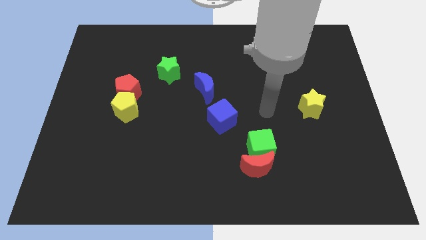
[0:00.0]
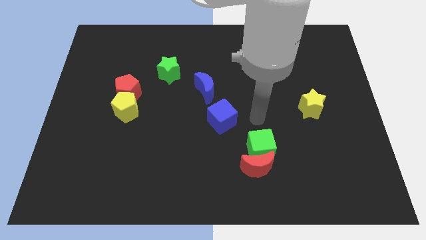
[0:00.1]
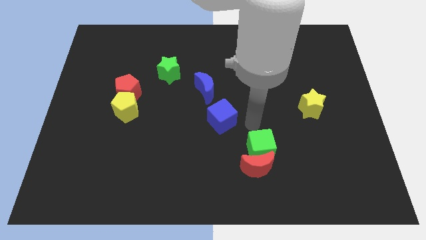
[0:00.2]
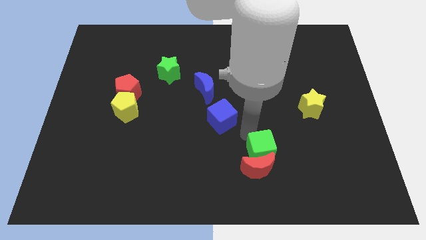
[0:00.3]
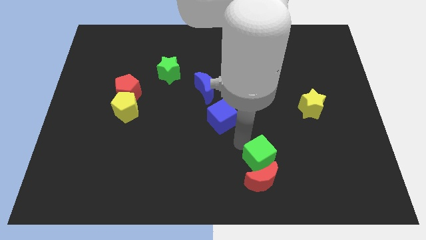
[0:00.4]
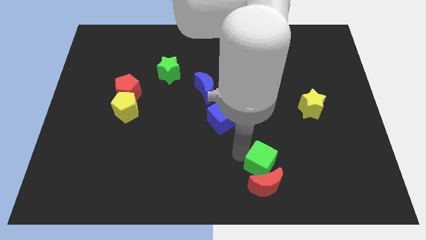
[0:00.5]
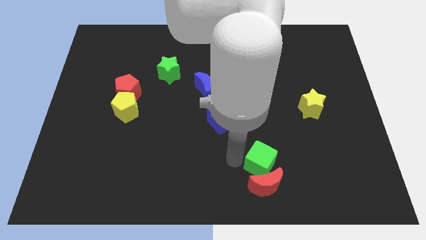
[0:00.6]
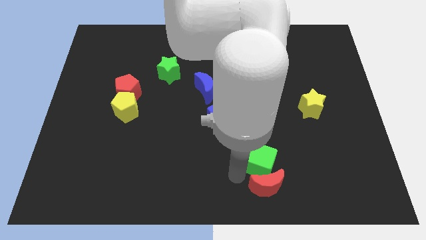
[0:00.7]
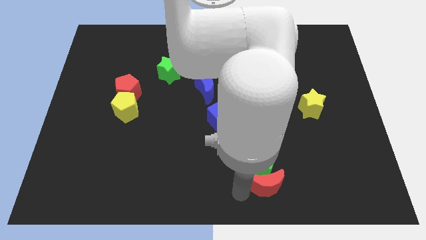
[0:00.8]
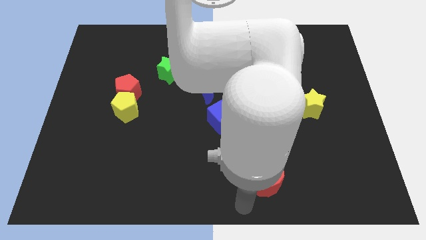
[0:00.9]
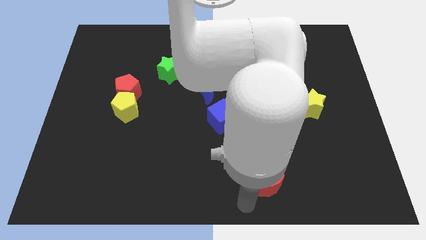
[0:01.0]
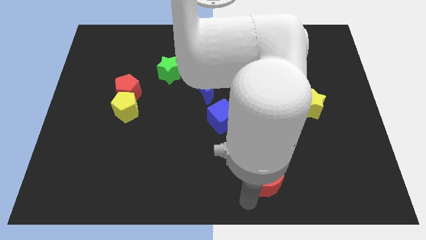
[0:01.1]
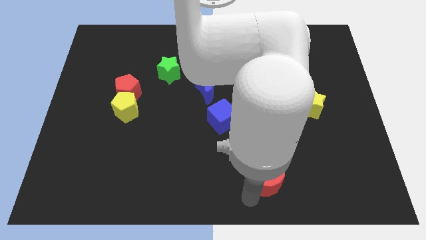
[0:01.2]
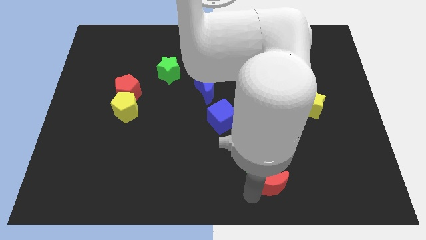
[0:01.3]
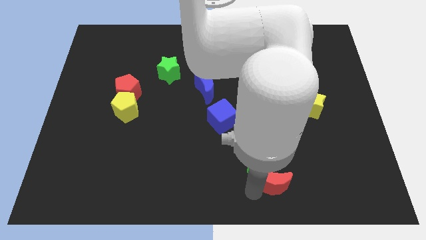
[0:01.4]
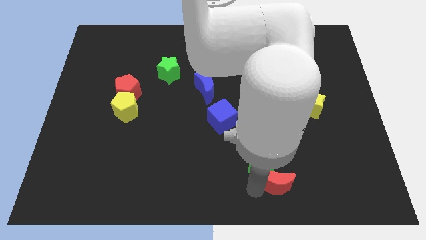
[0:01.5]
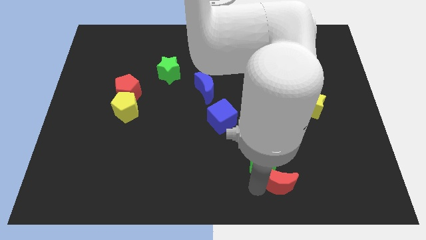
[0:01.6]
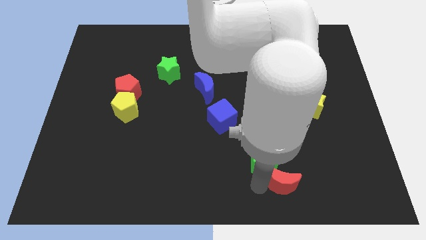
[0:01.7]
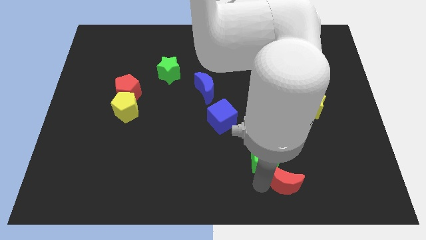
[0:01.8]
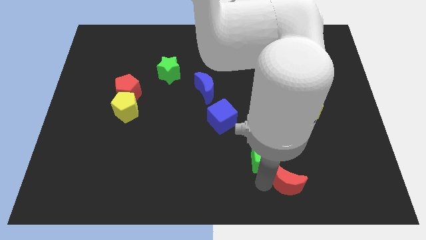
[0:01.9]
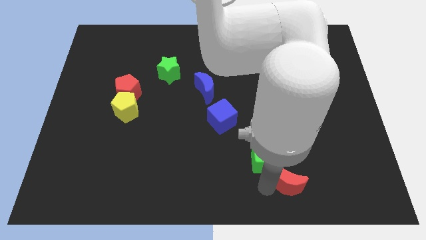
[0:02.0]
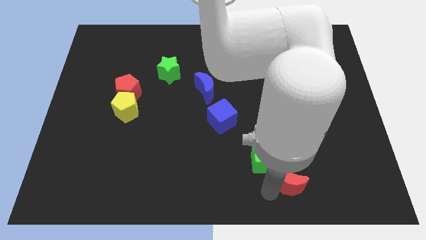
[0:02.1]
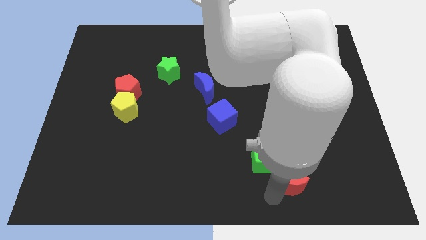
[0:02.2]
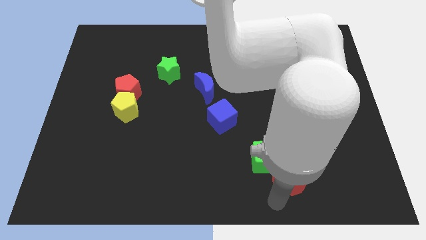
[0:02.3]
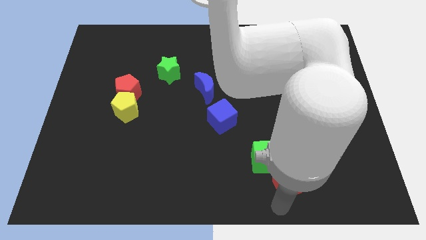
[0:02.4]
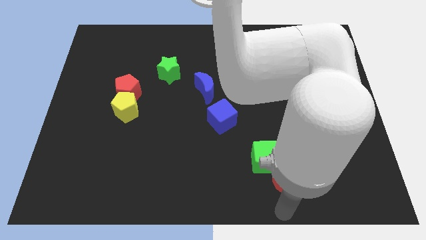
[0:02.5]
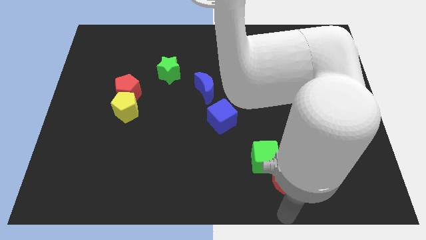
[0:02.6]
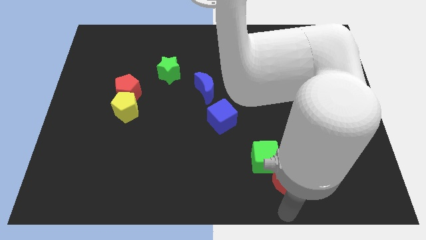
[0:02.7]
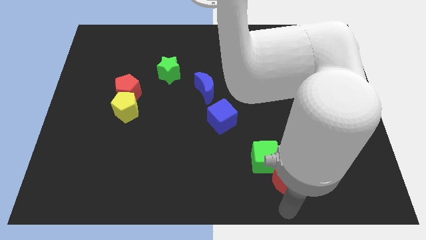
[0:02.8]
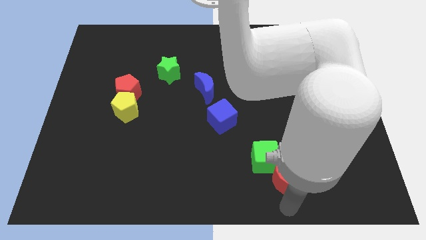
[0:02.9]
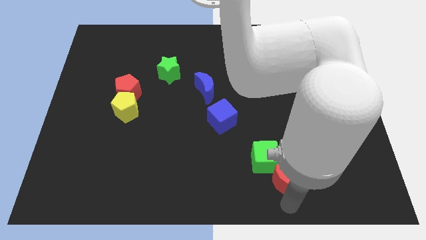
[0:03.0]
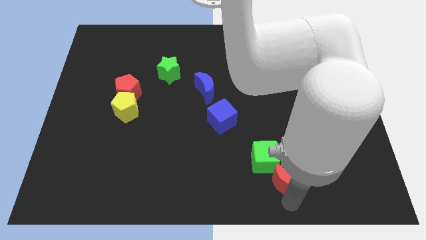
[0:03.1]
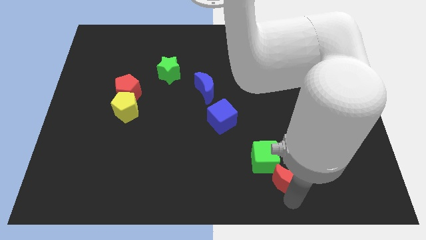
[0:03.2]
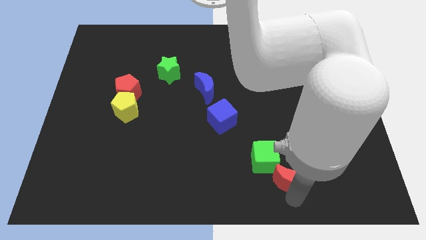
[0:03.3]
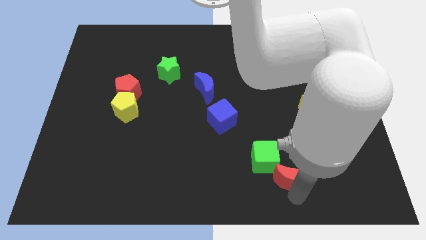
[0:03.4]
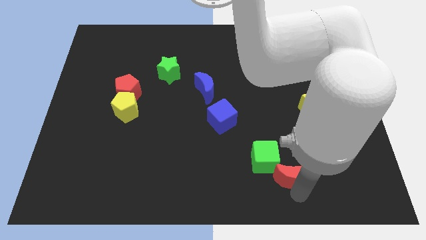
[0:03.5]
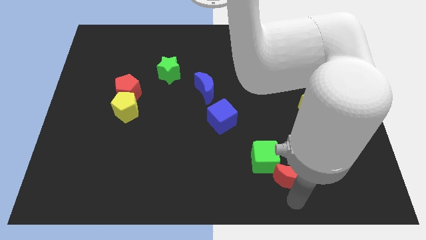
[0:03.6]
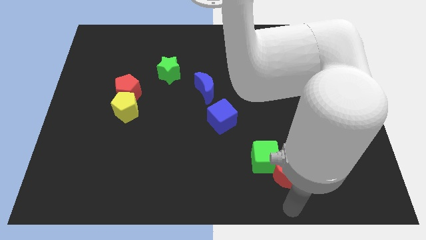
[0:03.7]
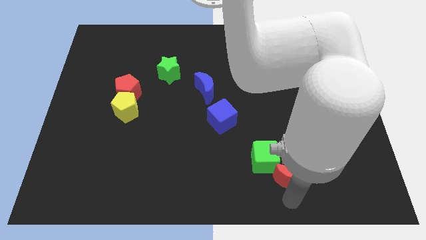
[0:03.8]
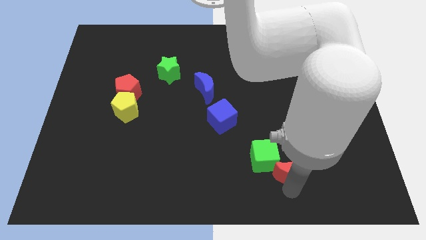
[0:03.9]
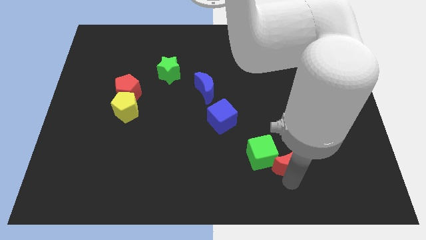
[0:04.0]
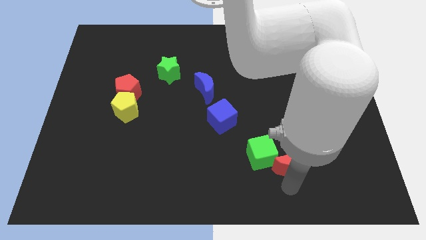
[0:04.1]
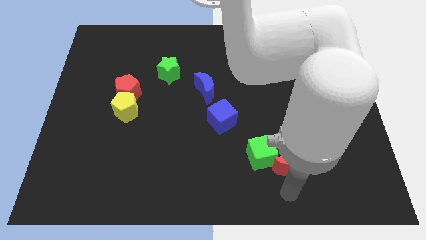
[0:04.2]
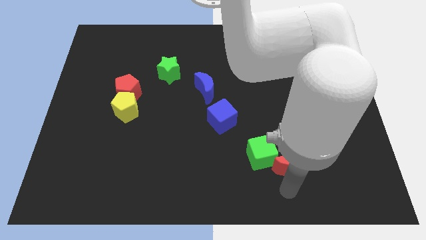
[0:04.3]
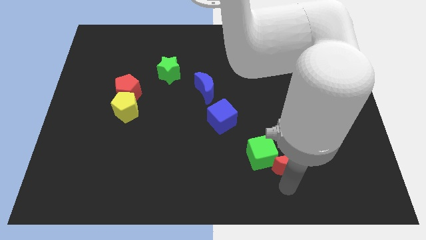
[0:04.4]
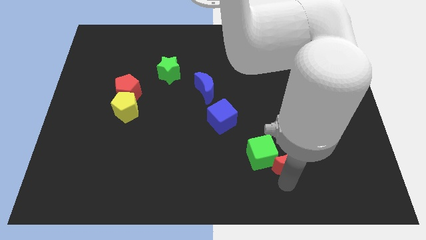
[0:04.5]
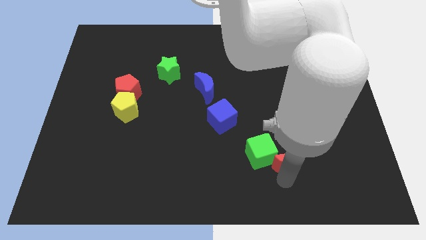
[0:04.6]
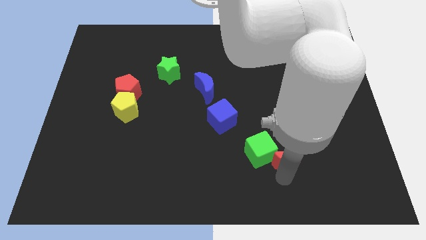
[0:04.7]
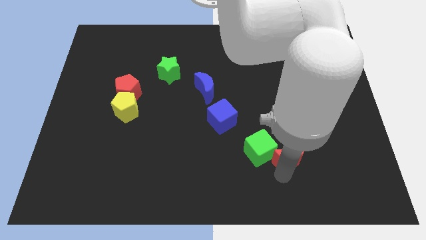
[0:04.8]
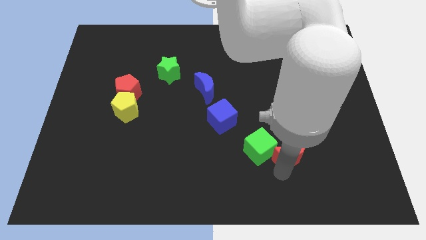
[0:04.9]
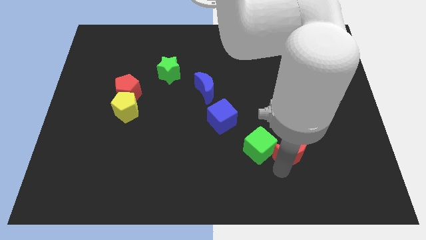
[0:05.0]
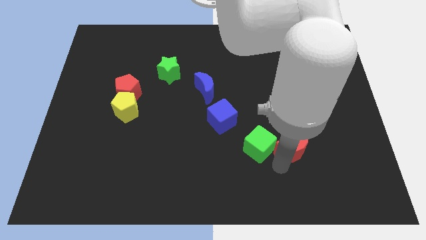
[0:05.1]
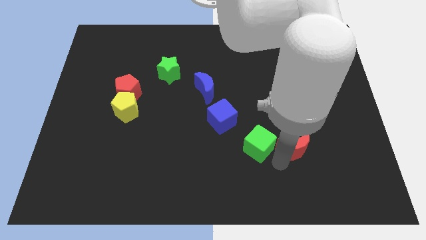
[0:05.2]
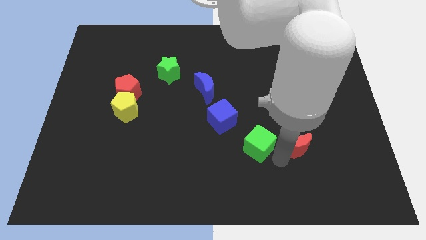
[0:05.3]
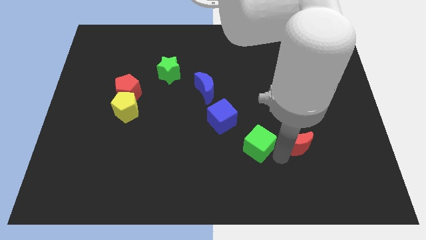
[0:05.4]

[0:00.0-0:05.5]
push the red moon diagonally down and to the left of the yellow star

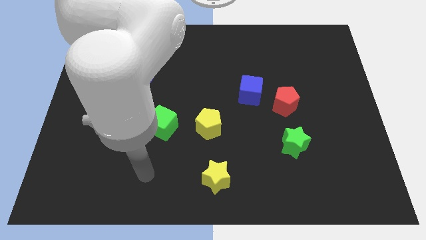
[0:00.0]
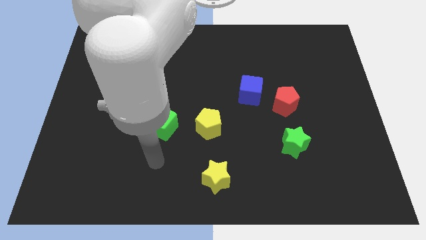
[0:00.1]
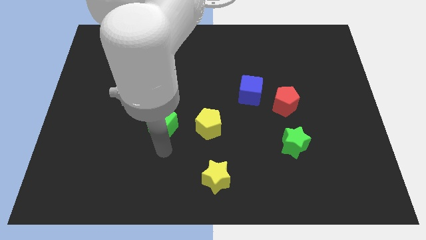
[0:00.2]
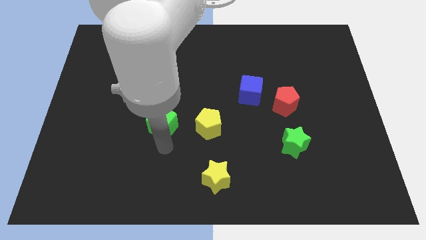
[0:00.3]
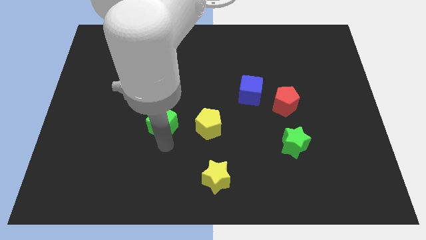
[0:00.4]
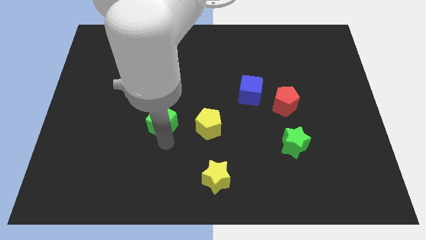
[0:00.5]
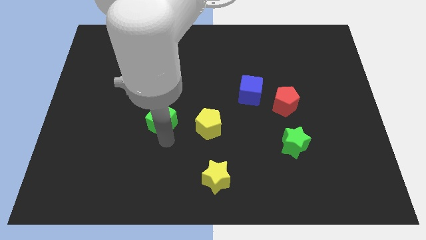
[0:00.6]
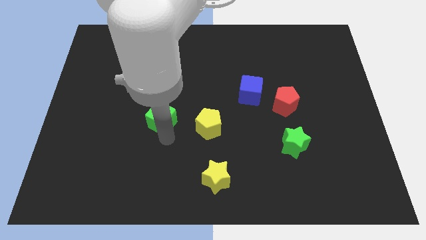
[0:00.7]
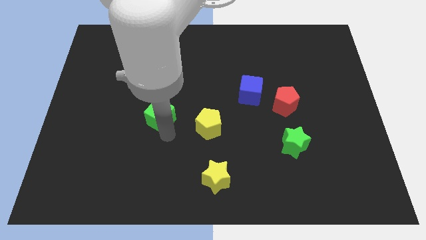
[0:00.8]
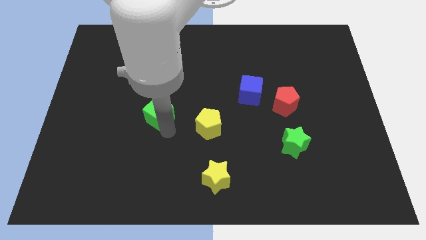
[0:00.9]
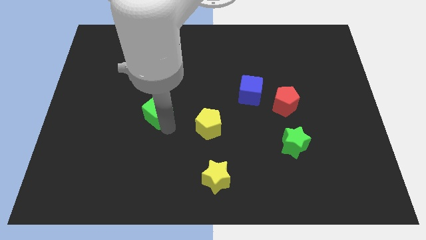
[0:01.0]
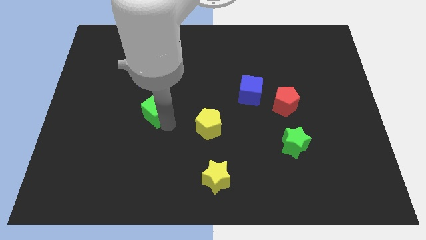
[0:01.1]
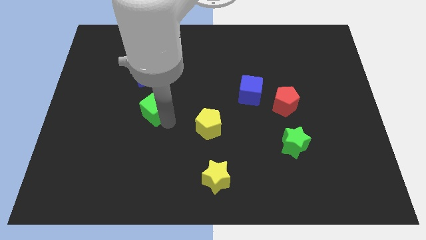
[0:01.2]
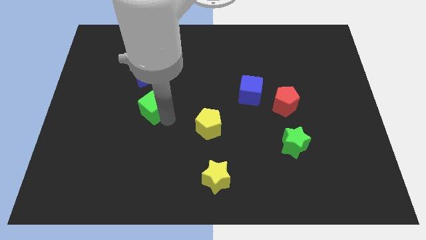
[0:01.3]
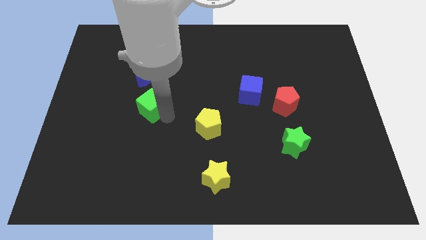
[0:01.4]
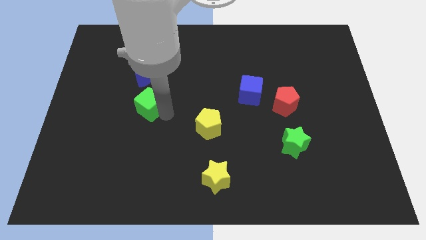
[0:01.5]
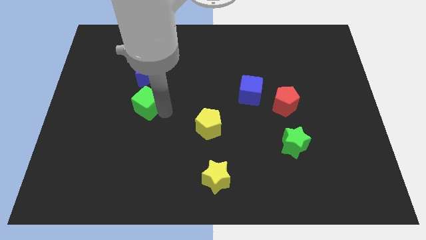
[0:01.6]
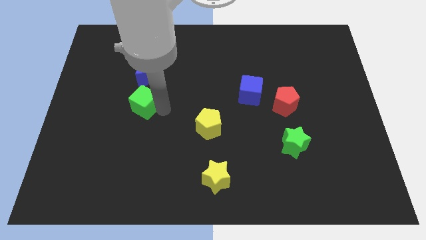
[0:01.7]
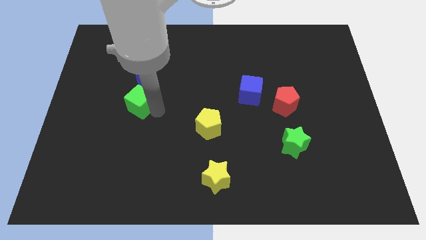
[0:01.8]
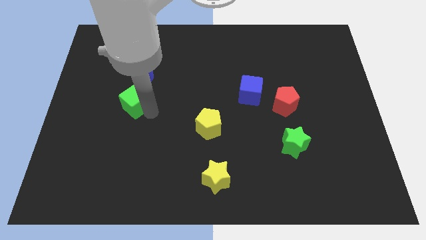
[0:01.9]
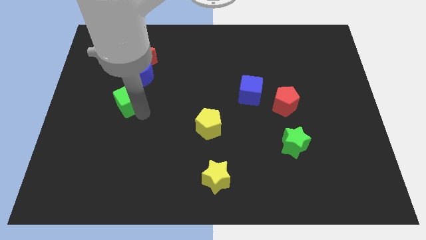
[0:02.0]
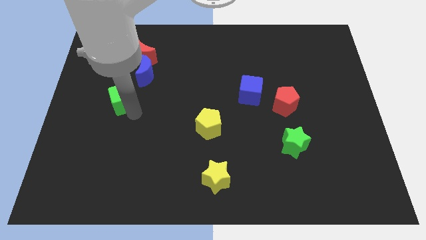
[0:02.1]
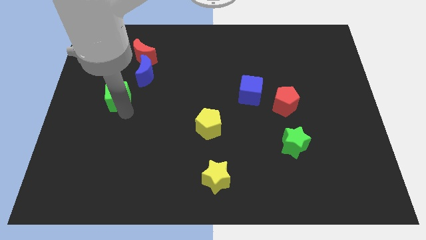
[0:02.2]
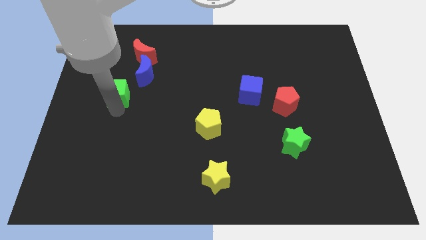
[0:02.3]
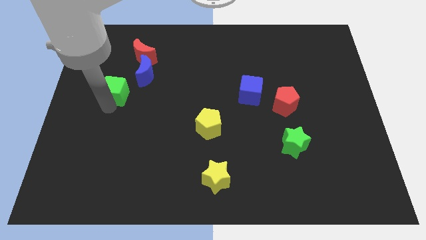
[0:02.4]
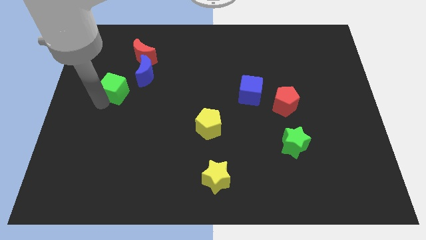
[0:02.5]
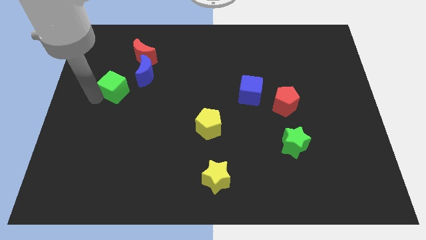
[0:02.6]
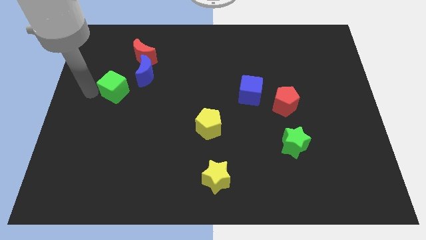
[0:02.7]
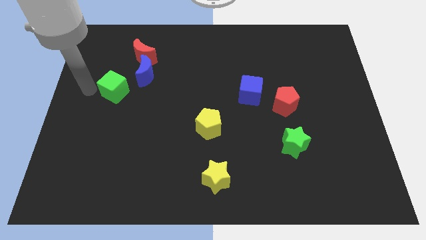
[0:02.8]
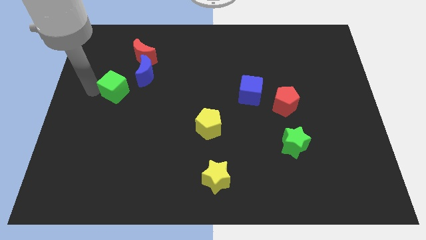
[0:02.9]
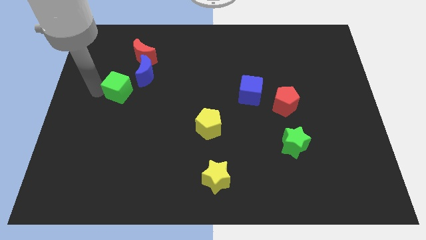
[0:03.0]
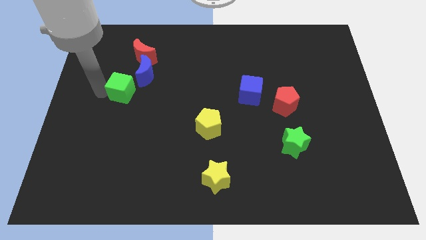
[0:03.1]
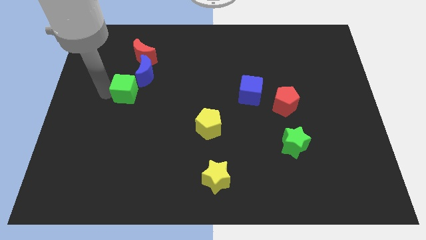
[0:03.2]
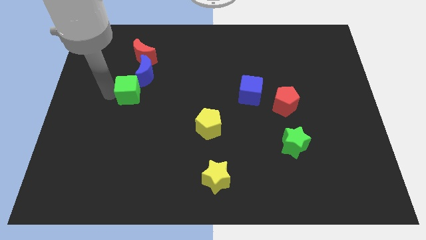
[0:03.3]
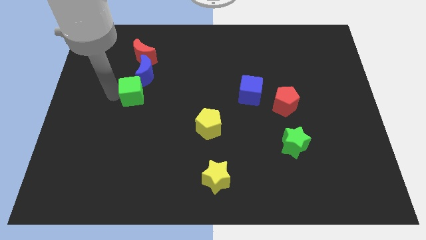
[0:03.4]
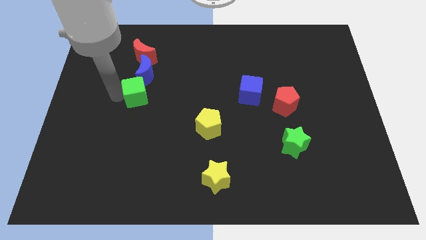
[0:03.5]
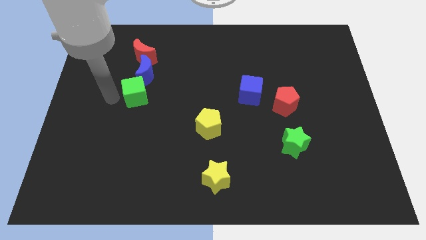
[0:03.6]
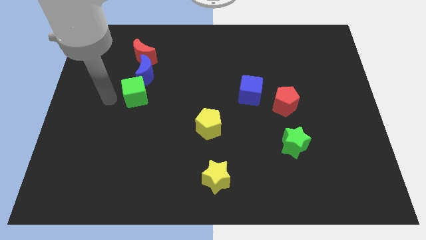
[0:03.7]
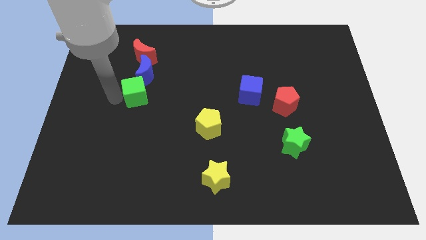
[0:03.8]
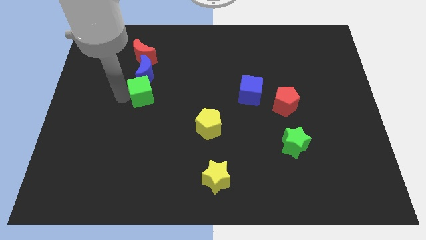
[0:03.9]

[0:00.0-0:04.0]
put the green cube to the bottom right side of the blue moon
